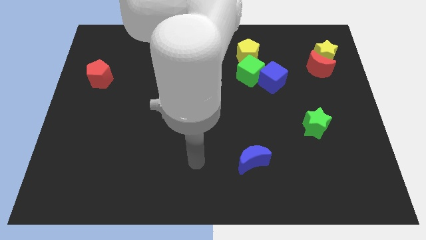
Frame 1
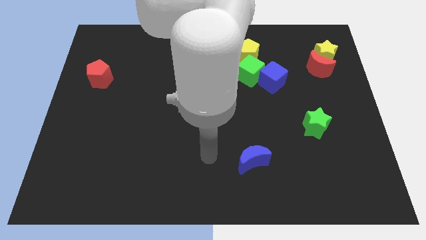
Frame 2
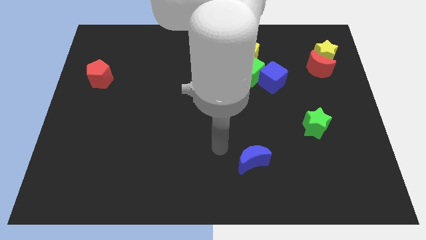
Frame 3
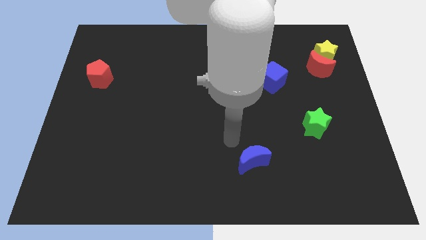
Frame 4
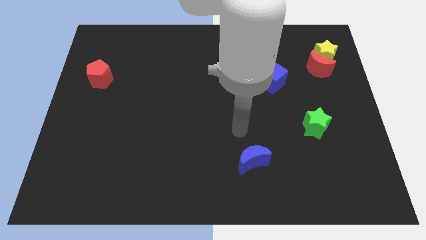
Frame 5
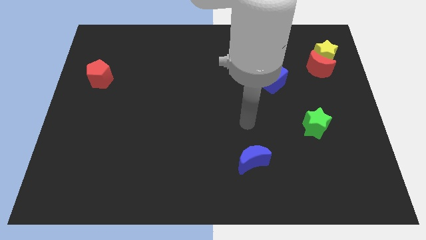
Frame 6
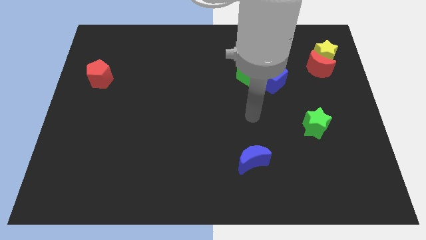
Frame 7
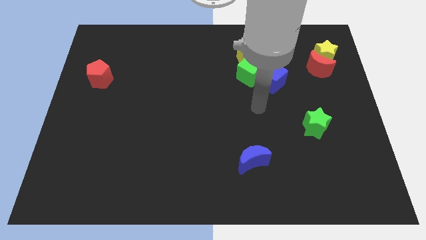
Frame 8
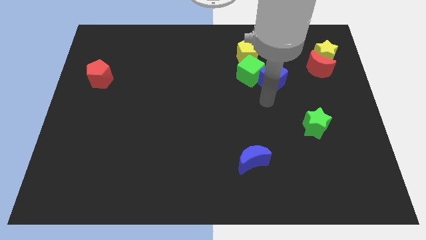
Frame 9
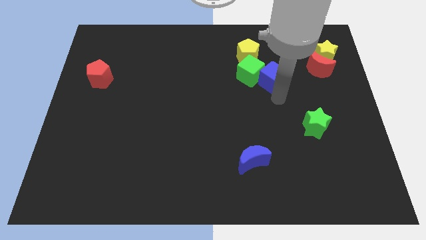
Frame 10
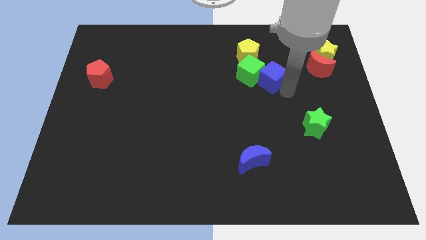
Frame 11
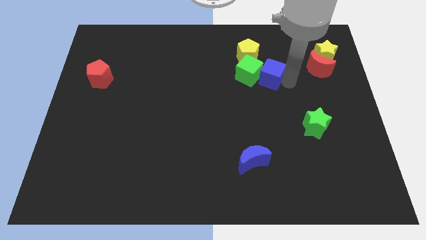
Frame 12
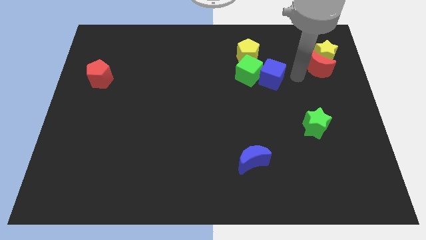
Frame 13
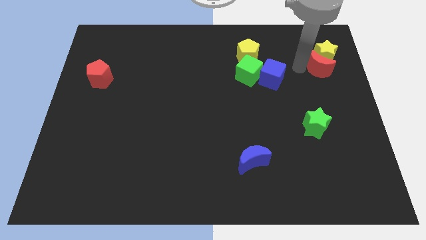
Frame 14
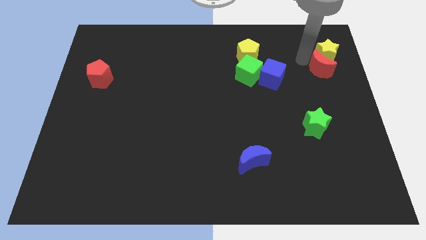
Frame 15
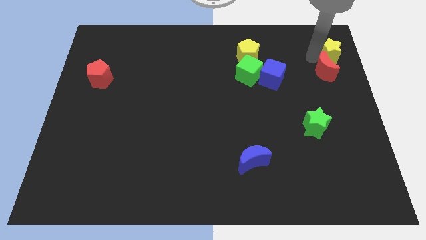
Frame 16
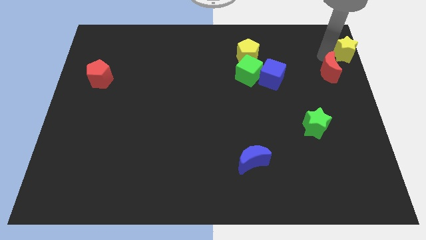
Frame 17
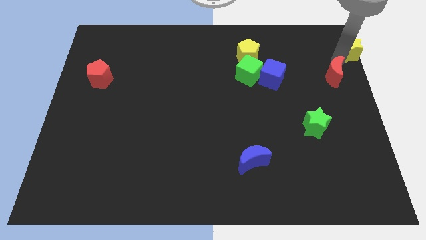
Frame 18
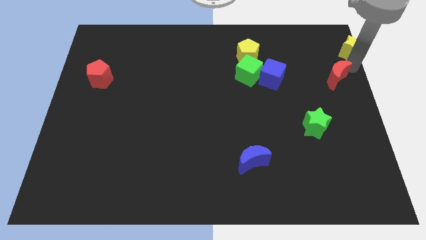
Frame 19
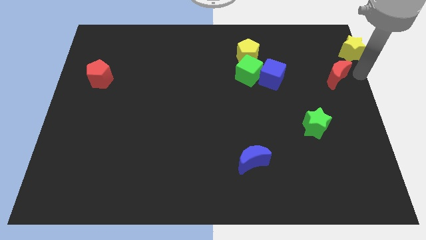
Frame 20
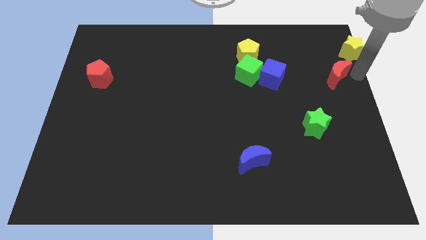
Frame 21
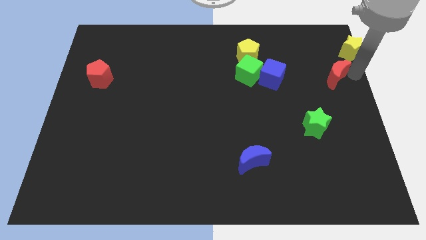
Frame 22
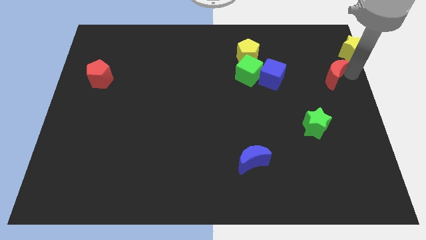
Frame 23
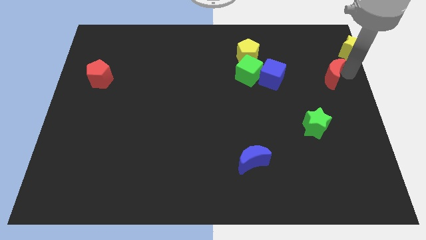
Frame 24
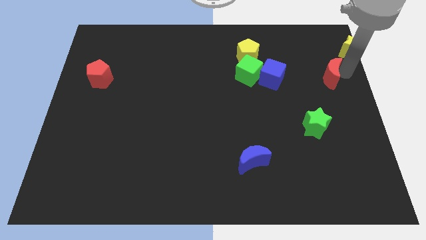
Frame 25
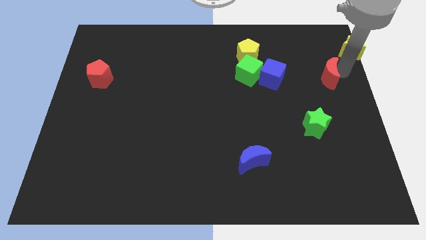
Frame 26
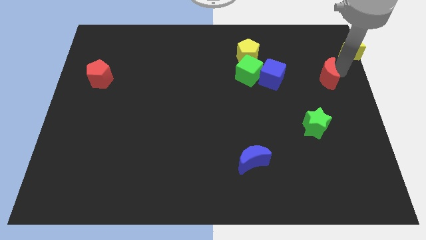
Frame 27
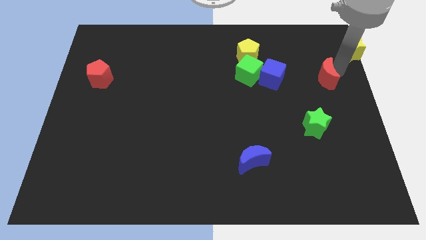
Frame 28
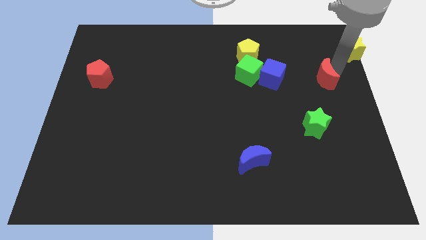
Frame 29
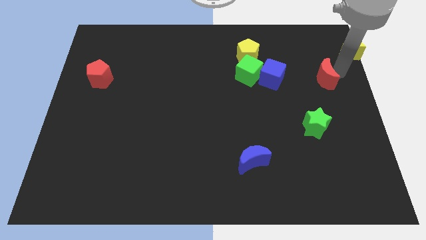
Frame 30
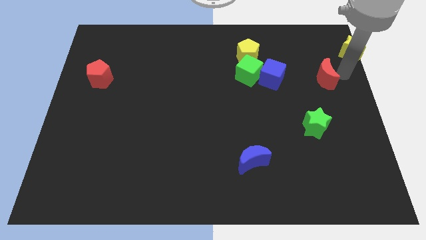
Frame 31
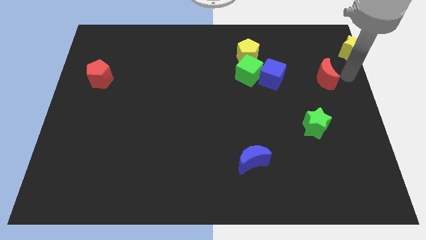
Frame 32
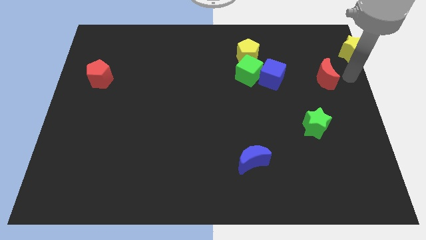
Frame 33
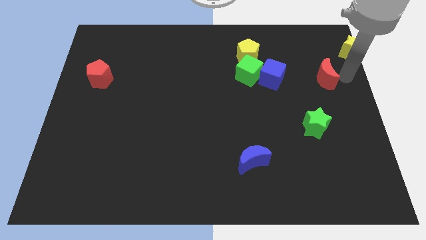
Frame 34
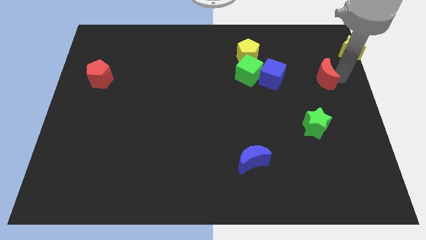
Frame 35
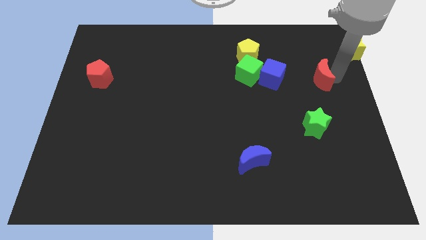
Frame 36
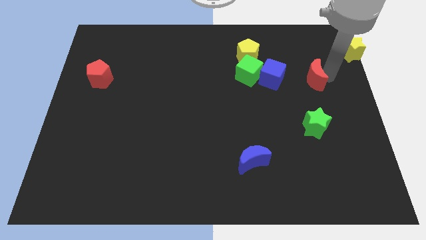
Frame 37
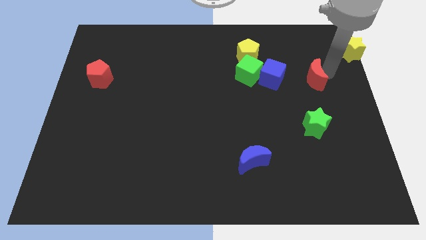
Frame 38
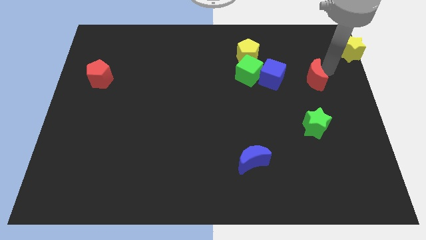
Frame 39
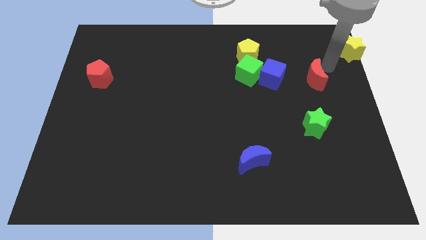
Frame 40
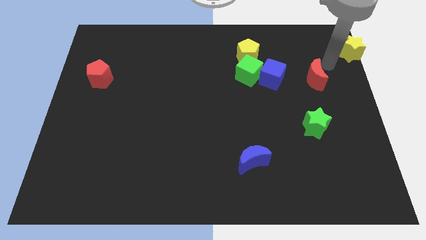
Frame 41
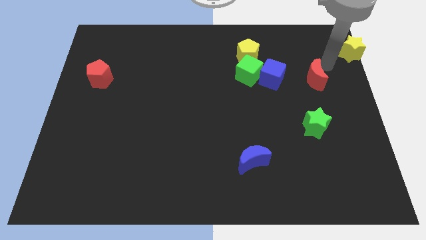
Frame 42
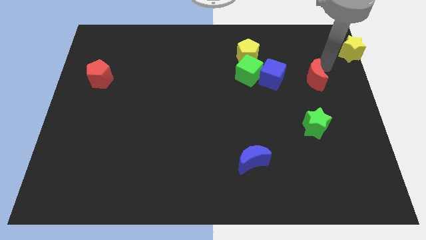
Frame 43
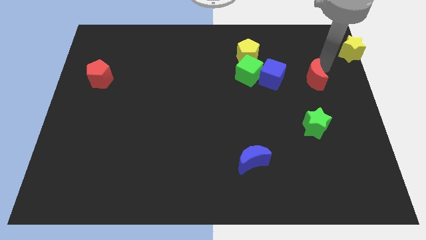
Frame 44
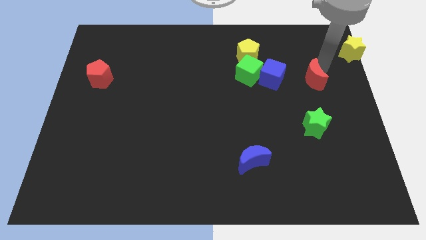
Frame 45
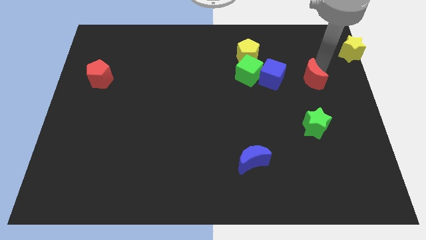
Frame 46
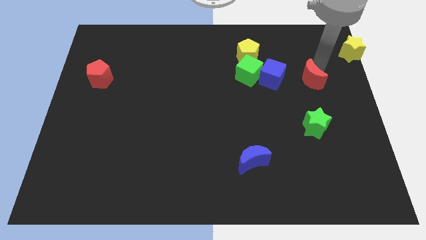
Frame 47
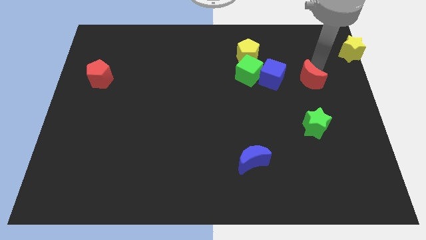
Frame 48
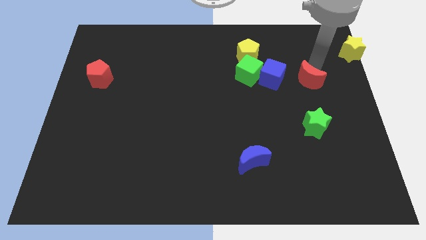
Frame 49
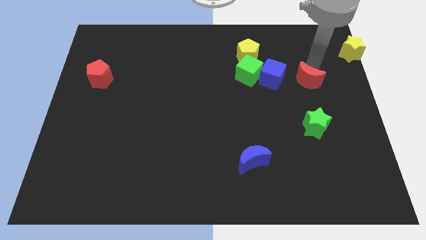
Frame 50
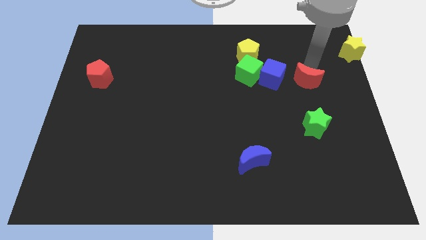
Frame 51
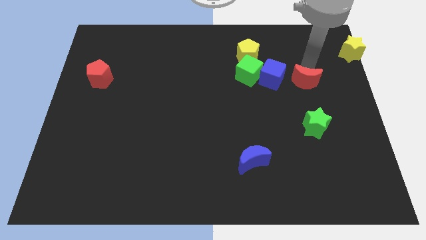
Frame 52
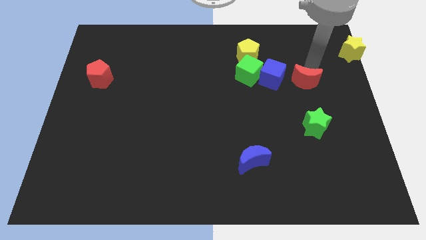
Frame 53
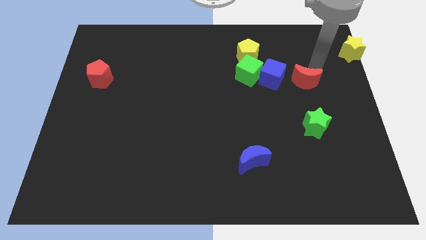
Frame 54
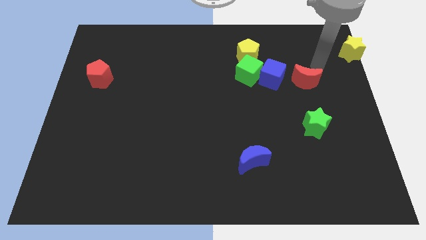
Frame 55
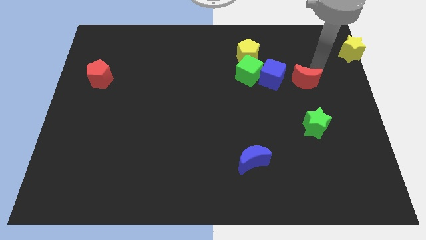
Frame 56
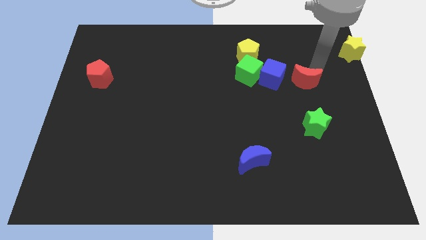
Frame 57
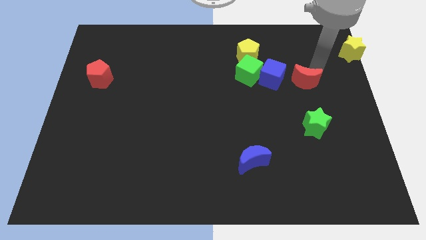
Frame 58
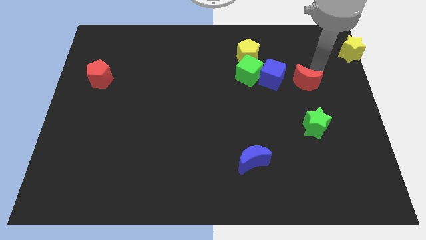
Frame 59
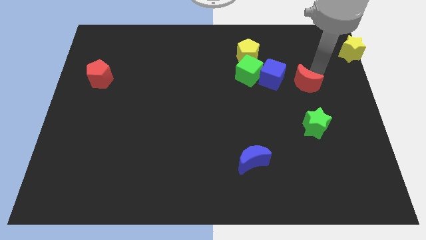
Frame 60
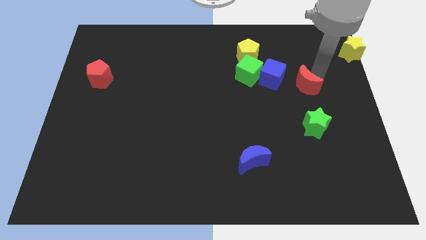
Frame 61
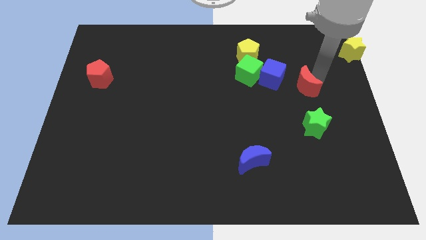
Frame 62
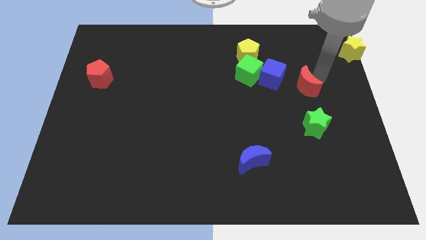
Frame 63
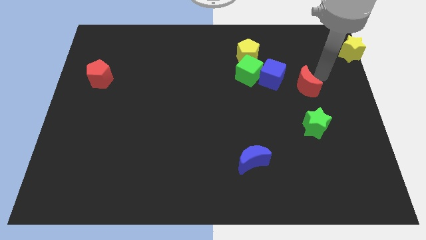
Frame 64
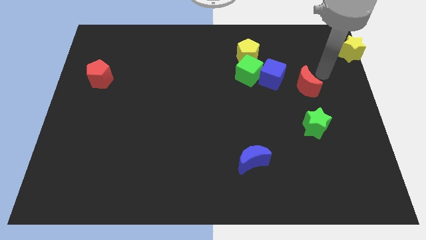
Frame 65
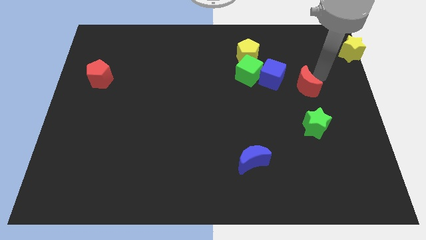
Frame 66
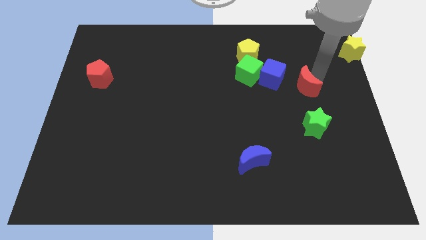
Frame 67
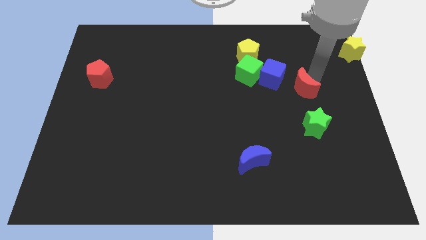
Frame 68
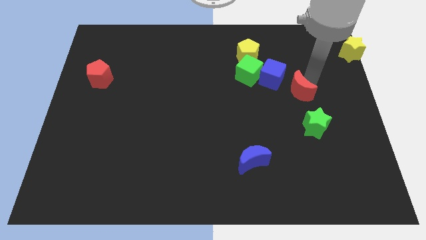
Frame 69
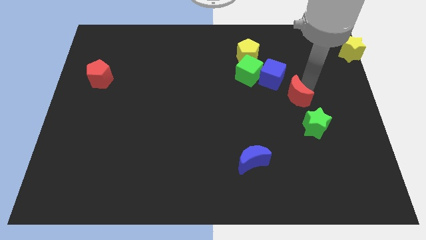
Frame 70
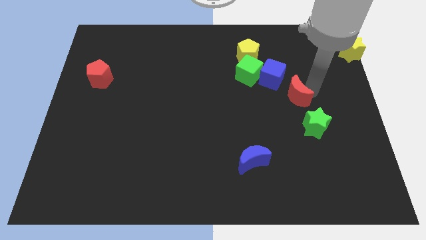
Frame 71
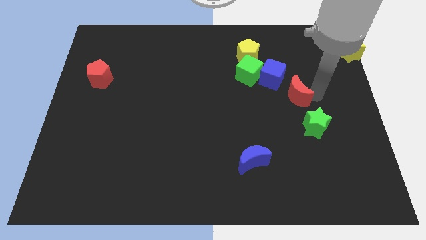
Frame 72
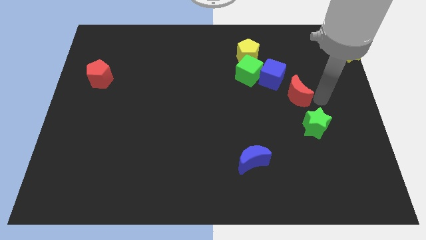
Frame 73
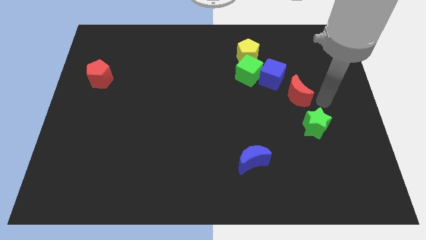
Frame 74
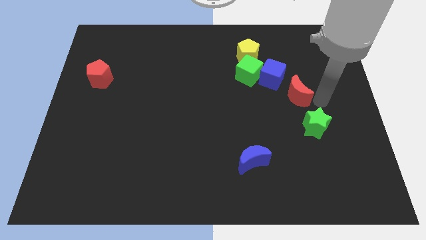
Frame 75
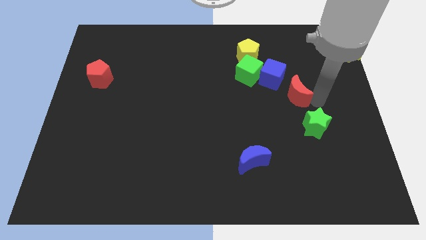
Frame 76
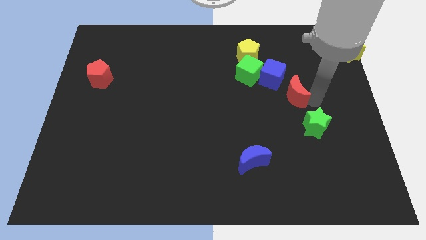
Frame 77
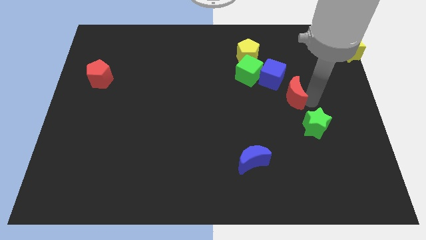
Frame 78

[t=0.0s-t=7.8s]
put the red moon diagonally down and to the right of the green cube
